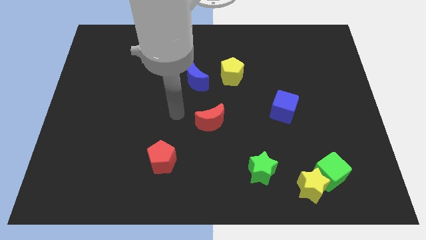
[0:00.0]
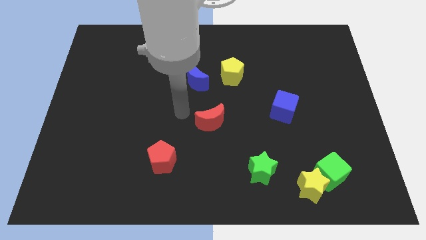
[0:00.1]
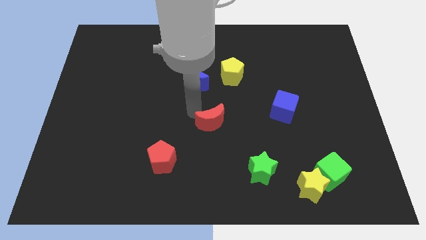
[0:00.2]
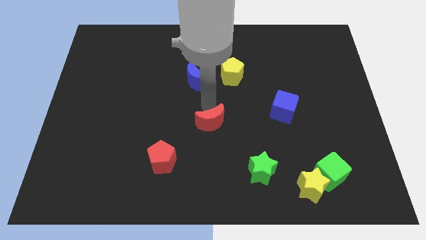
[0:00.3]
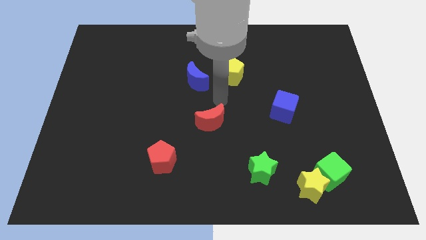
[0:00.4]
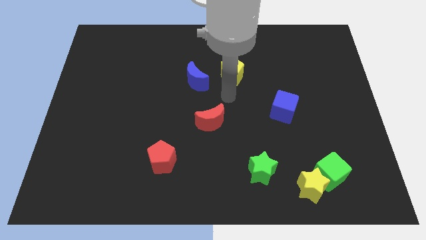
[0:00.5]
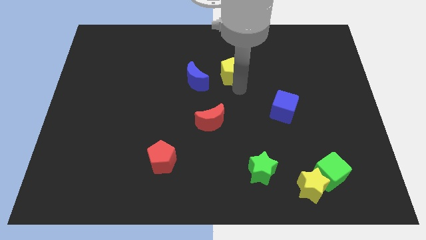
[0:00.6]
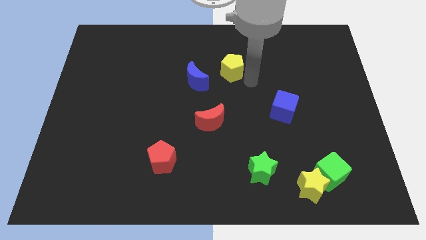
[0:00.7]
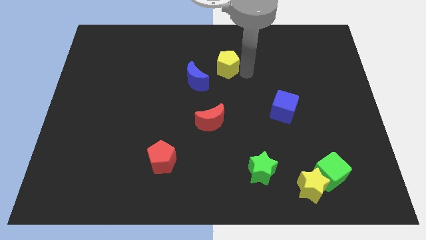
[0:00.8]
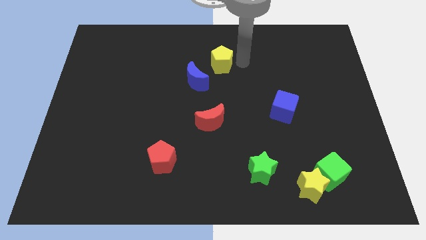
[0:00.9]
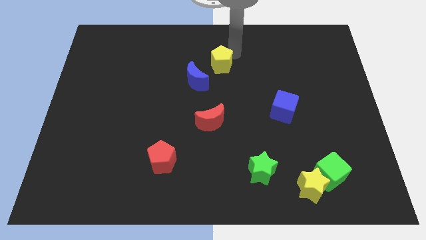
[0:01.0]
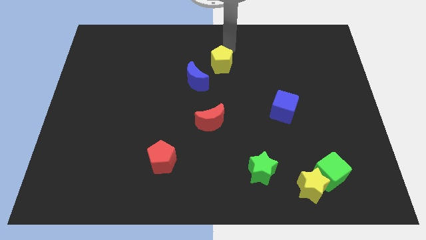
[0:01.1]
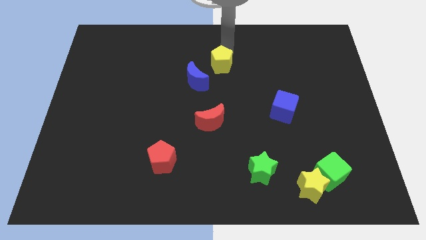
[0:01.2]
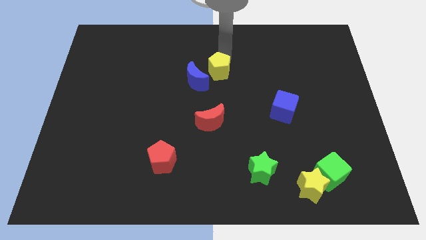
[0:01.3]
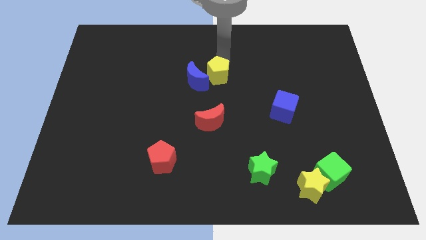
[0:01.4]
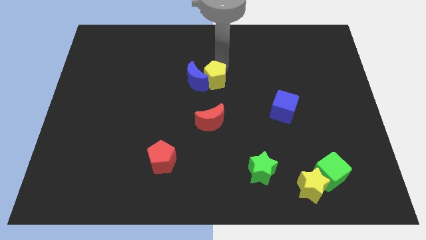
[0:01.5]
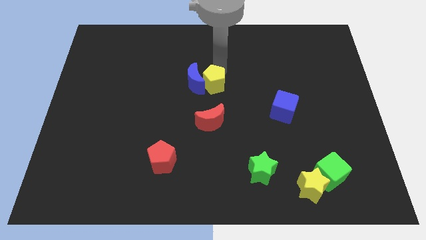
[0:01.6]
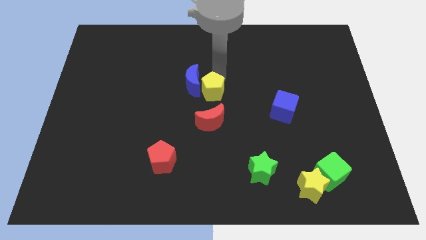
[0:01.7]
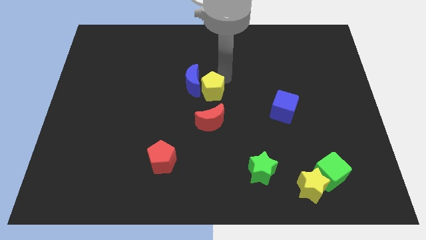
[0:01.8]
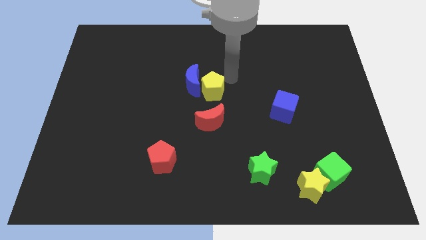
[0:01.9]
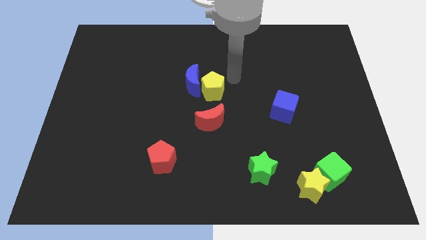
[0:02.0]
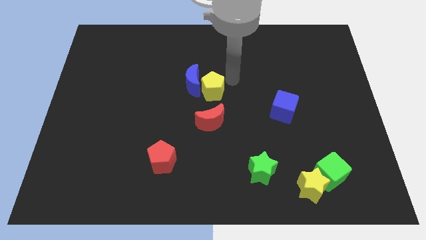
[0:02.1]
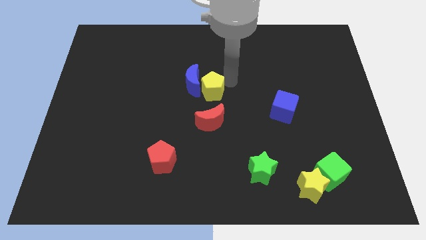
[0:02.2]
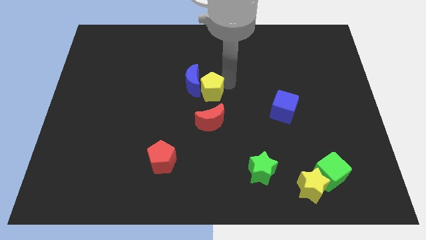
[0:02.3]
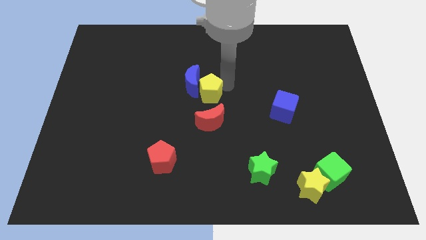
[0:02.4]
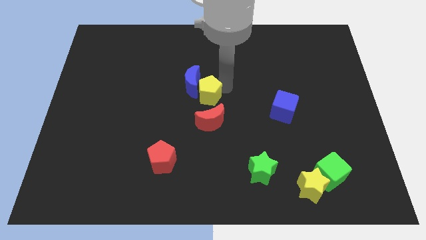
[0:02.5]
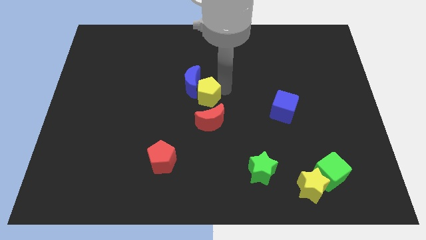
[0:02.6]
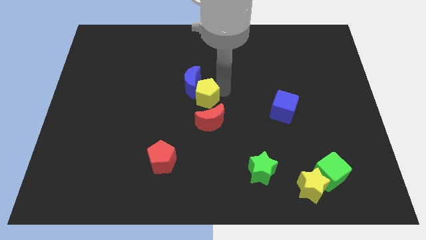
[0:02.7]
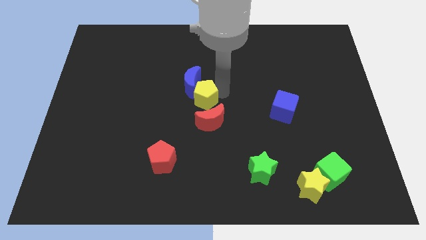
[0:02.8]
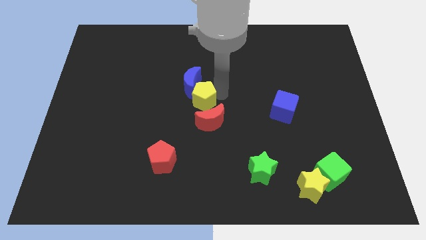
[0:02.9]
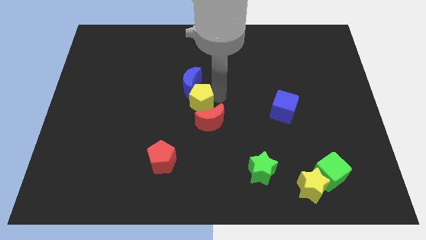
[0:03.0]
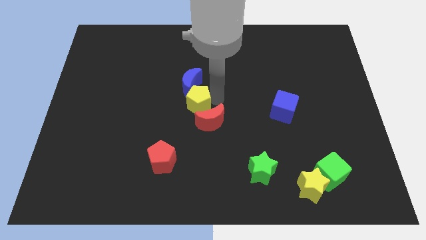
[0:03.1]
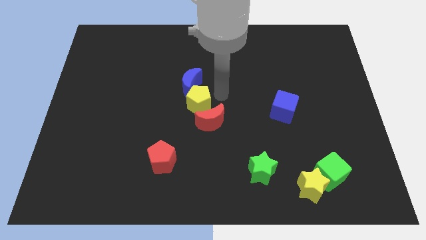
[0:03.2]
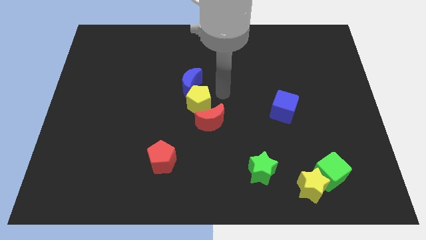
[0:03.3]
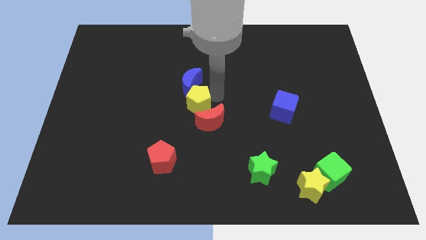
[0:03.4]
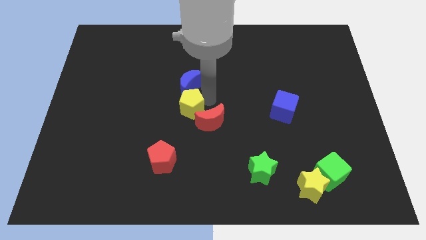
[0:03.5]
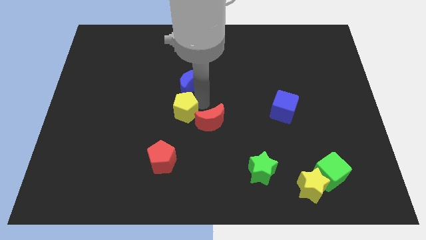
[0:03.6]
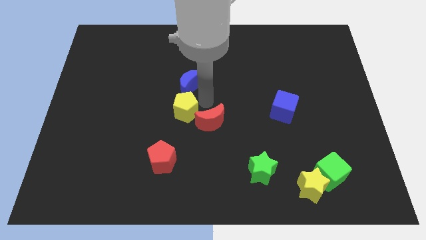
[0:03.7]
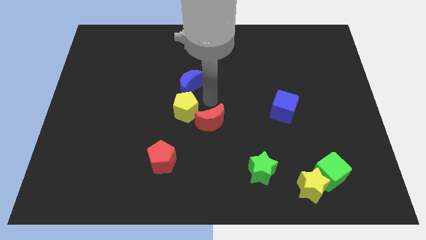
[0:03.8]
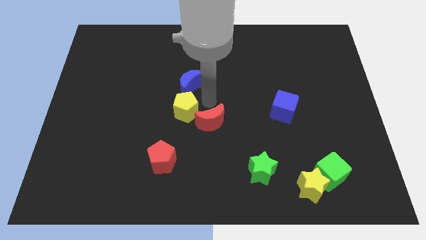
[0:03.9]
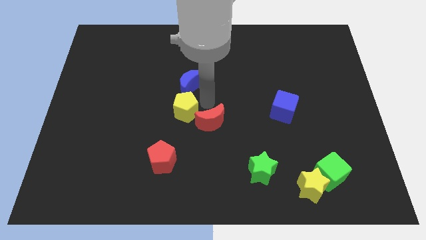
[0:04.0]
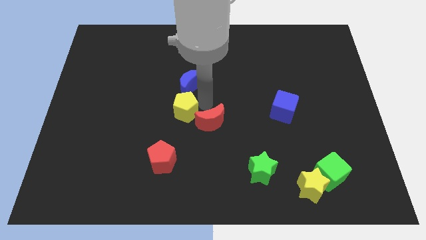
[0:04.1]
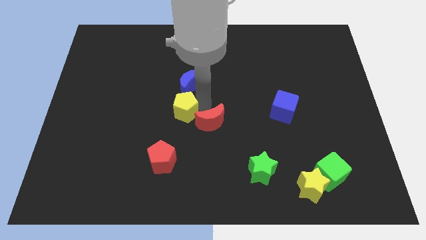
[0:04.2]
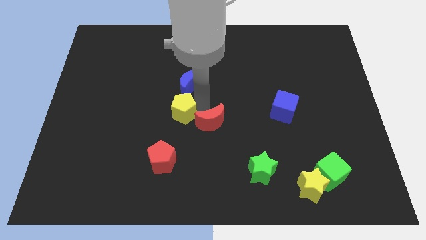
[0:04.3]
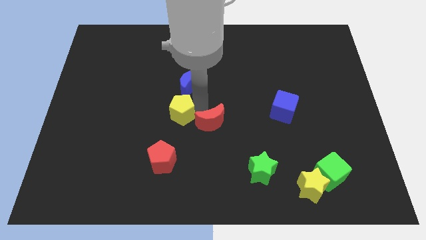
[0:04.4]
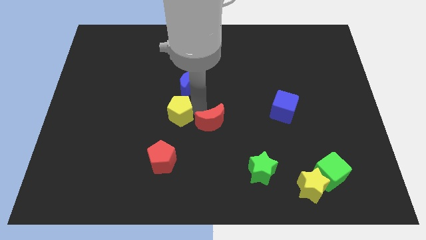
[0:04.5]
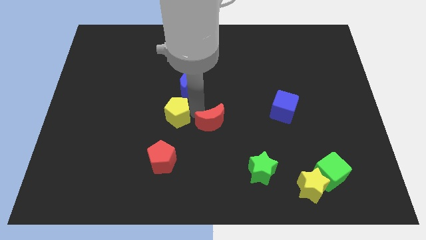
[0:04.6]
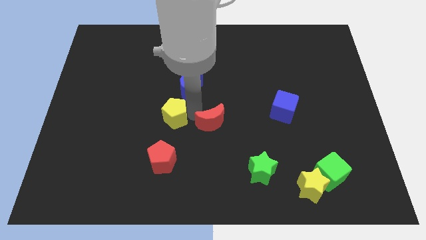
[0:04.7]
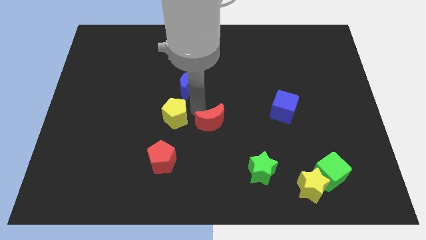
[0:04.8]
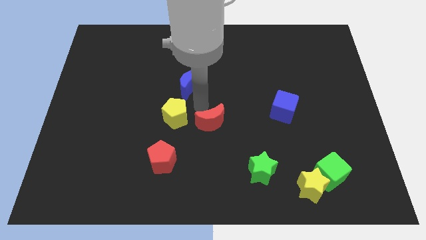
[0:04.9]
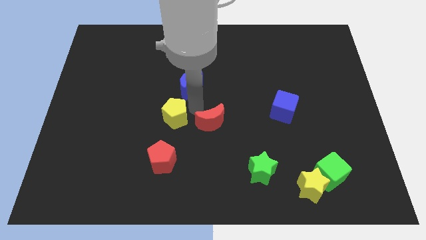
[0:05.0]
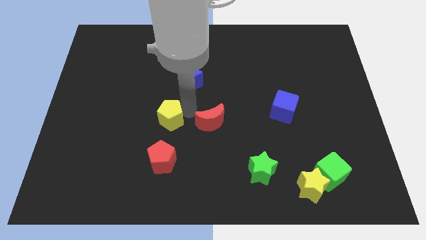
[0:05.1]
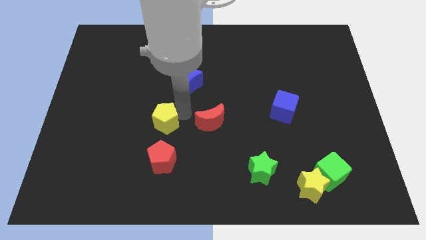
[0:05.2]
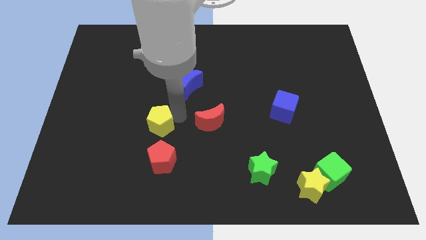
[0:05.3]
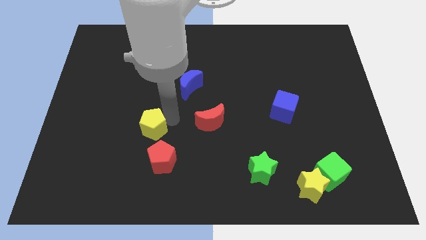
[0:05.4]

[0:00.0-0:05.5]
slide the yellow pentagon to the top left of the red pentagon

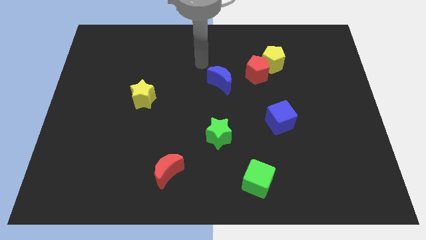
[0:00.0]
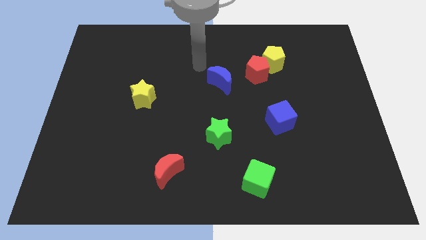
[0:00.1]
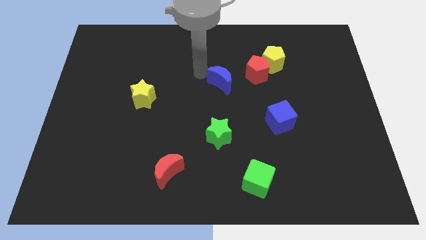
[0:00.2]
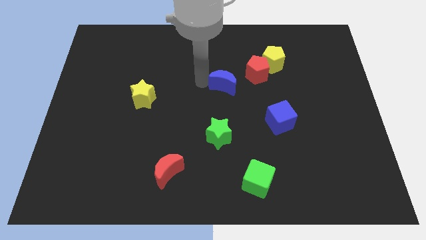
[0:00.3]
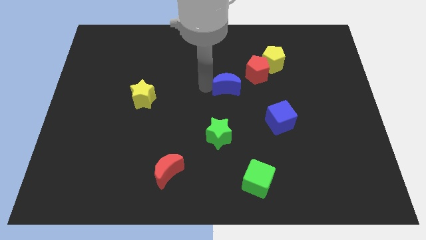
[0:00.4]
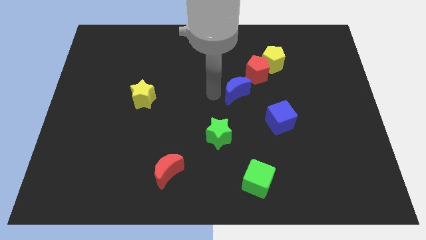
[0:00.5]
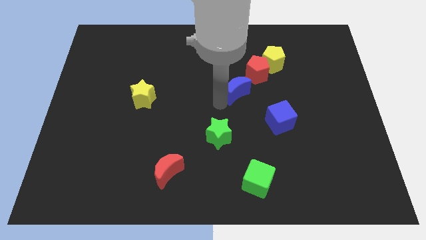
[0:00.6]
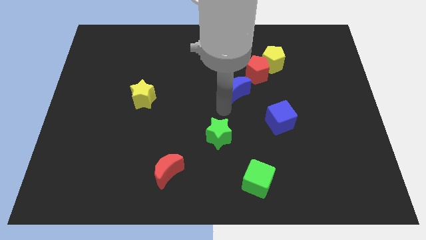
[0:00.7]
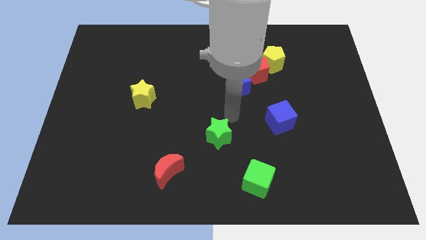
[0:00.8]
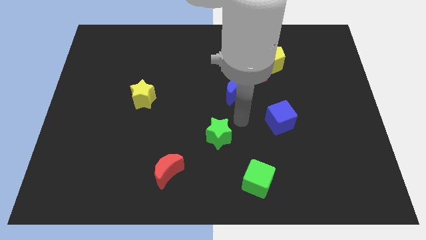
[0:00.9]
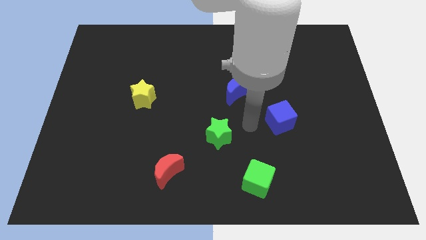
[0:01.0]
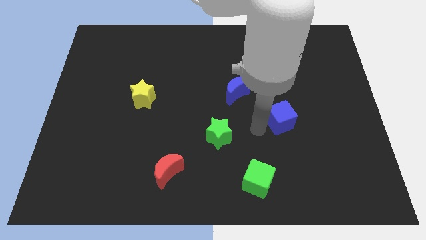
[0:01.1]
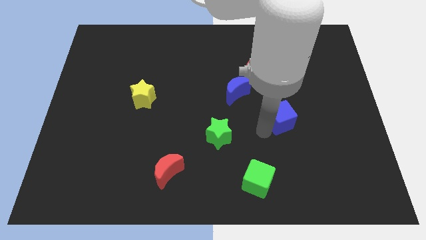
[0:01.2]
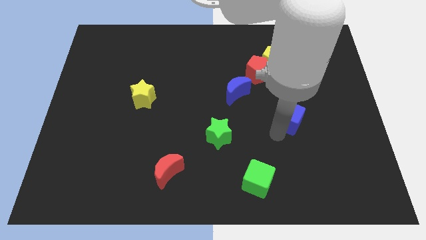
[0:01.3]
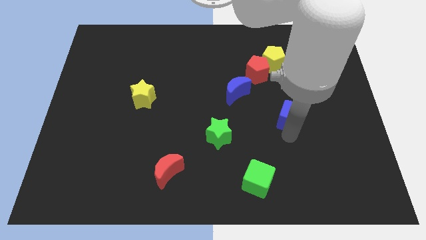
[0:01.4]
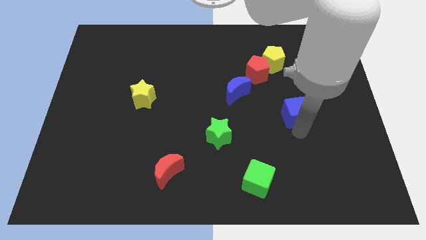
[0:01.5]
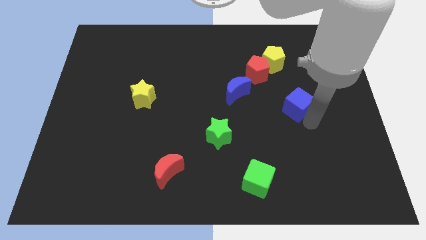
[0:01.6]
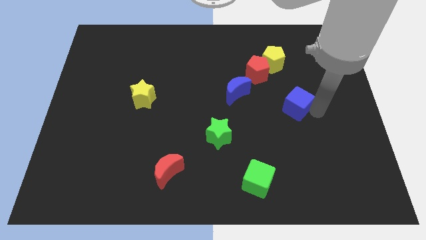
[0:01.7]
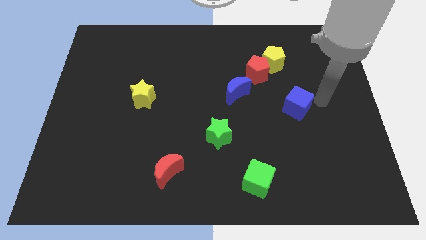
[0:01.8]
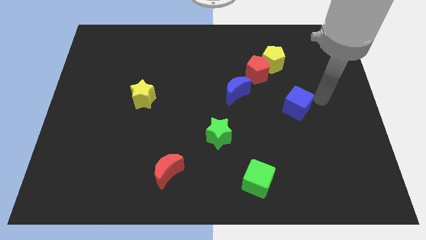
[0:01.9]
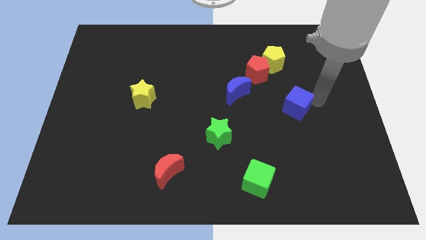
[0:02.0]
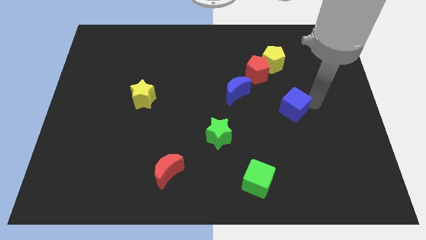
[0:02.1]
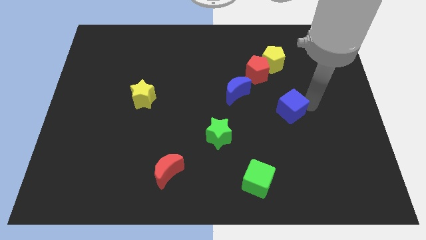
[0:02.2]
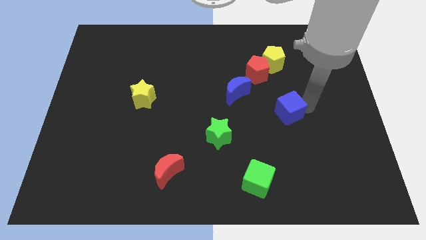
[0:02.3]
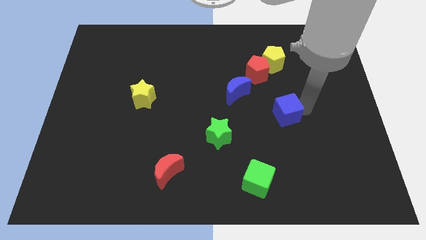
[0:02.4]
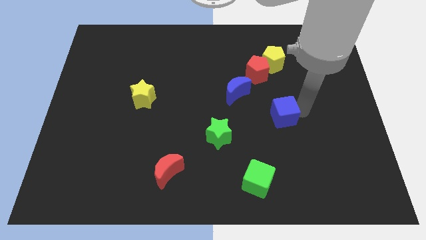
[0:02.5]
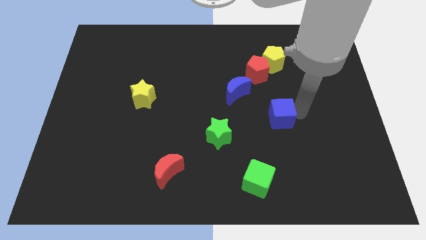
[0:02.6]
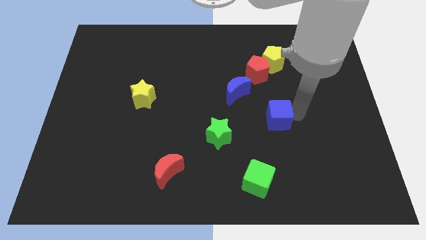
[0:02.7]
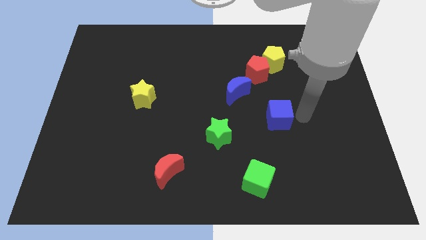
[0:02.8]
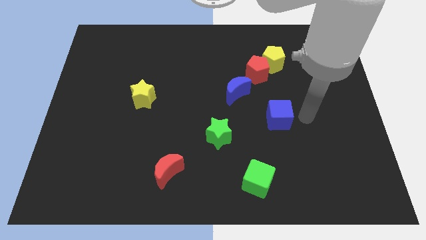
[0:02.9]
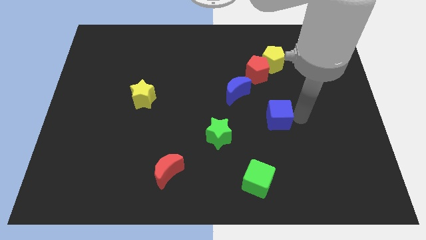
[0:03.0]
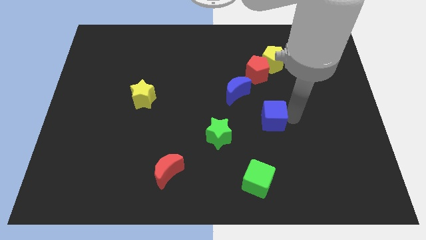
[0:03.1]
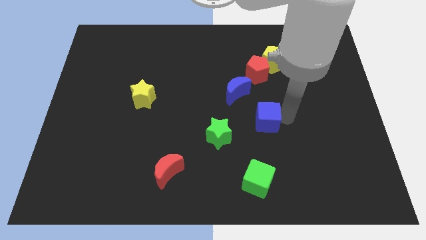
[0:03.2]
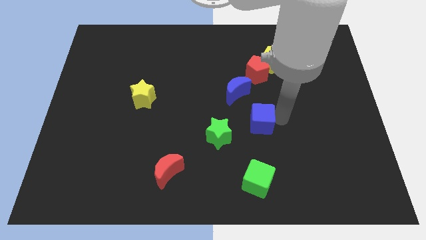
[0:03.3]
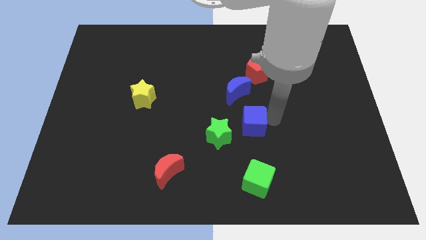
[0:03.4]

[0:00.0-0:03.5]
push the blue cube to the bottom side of the blue moon
